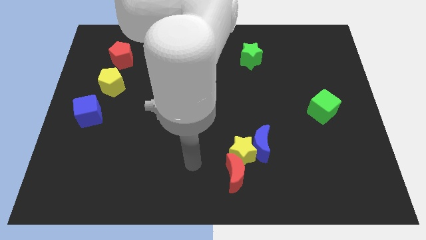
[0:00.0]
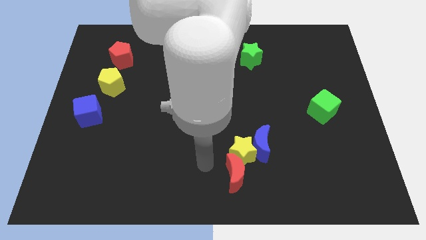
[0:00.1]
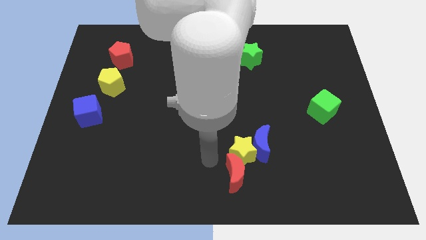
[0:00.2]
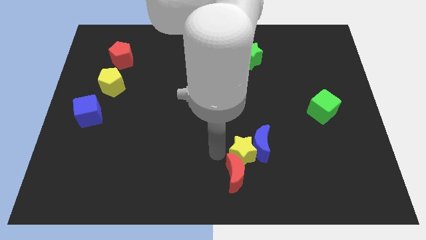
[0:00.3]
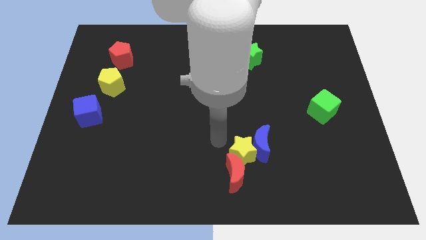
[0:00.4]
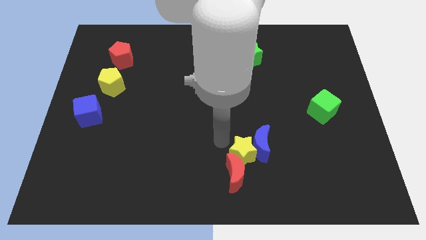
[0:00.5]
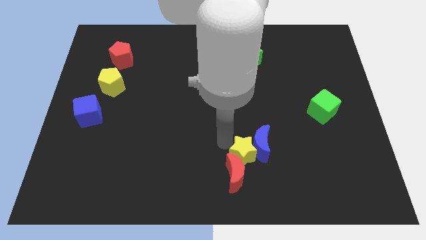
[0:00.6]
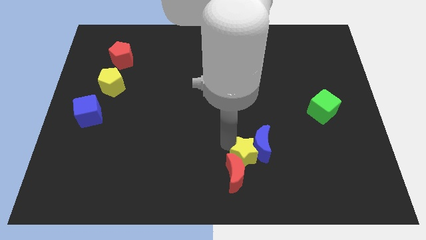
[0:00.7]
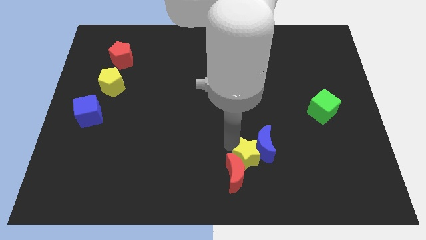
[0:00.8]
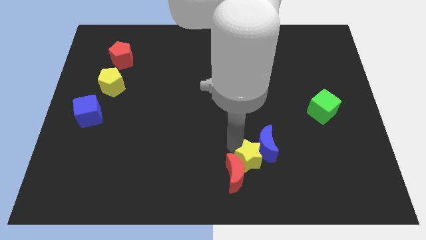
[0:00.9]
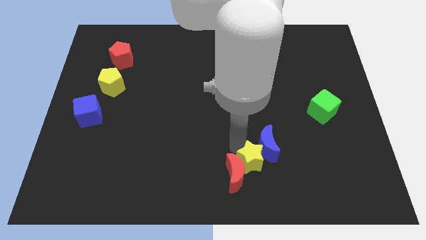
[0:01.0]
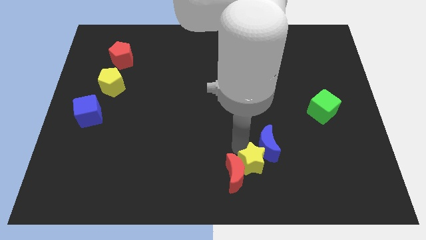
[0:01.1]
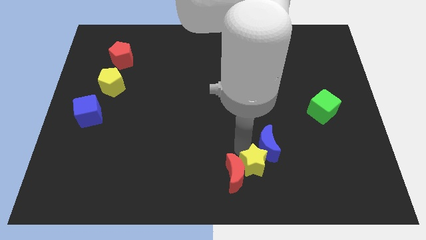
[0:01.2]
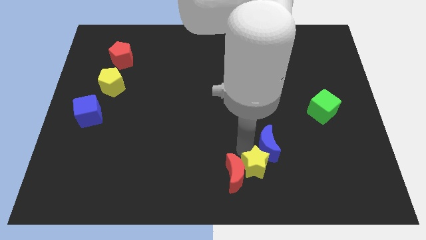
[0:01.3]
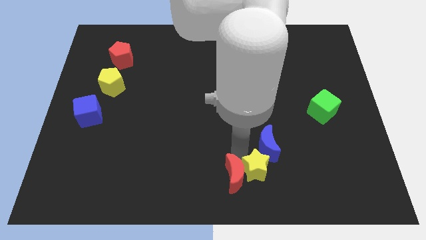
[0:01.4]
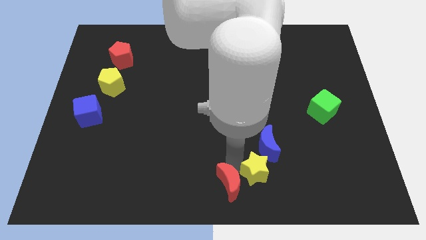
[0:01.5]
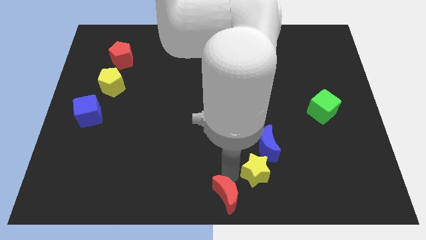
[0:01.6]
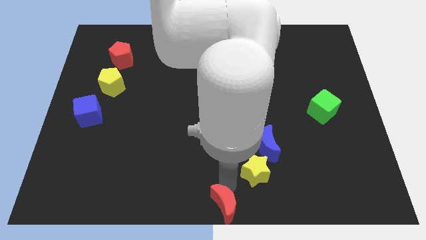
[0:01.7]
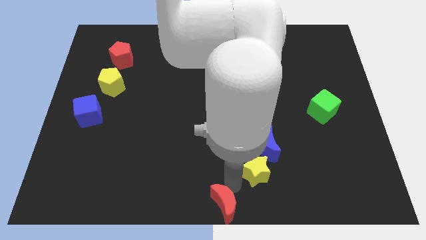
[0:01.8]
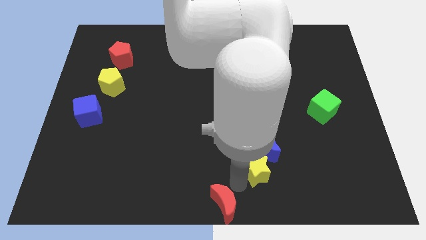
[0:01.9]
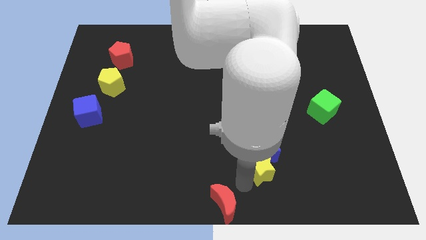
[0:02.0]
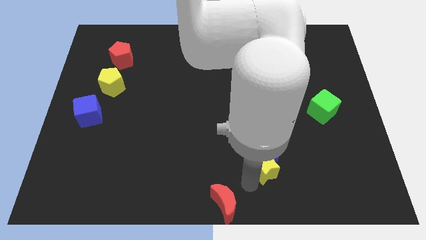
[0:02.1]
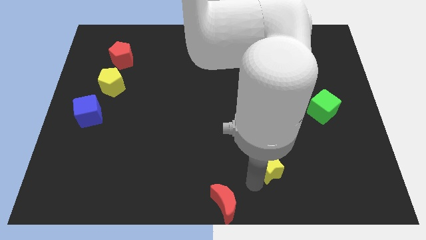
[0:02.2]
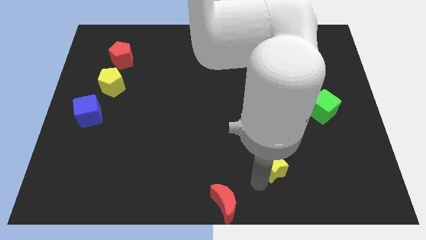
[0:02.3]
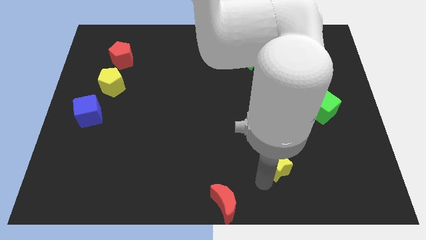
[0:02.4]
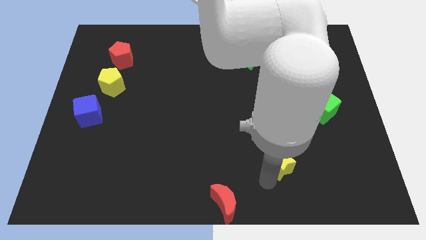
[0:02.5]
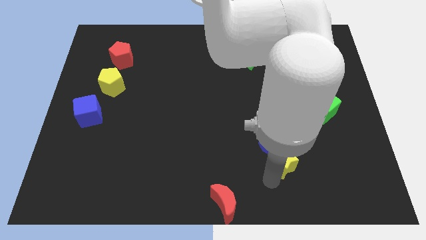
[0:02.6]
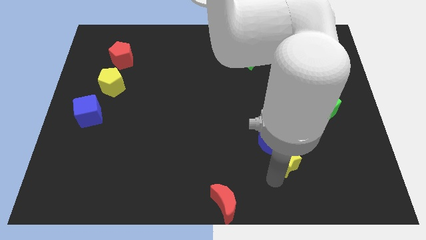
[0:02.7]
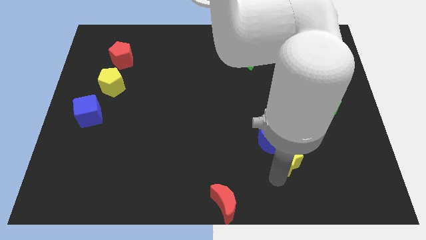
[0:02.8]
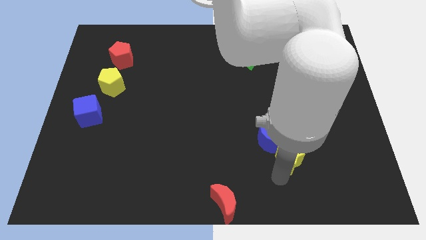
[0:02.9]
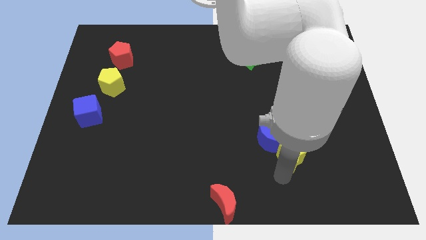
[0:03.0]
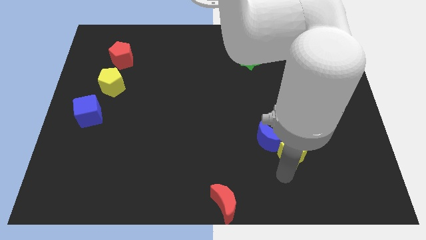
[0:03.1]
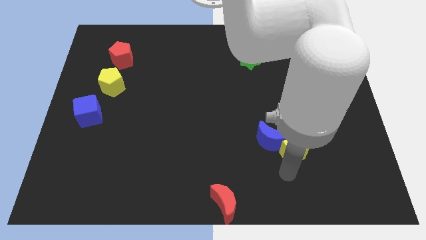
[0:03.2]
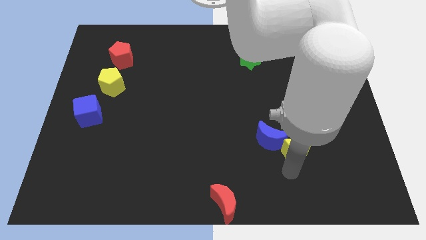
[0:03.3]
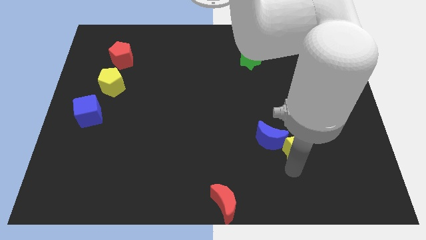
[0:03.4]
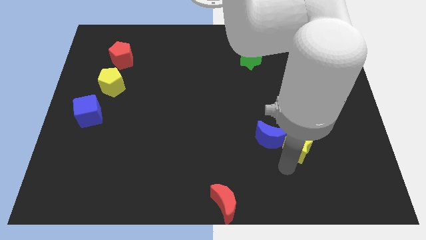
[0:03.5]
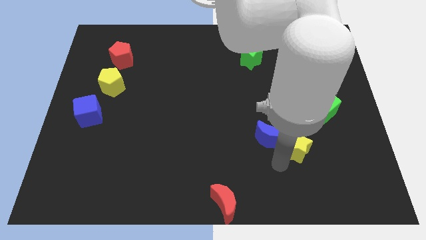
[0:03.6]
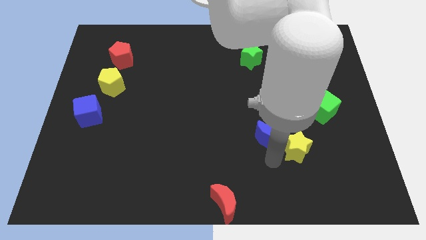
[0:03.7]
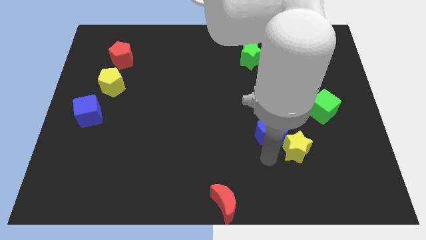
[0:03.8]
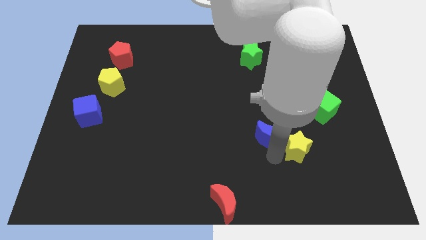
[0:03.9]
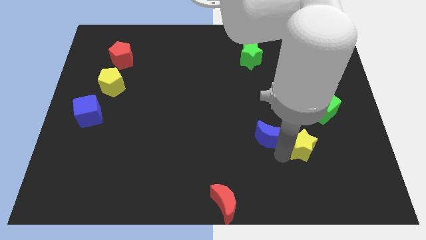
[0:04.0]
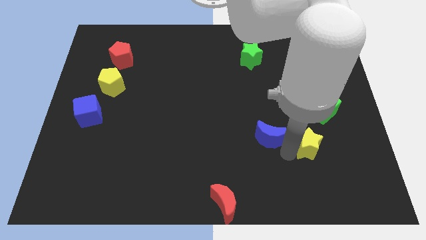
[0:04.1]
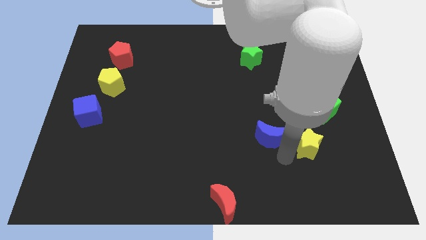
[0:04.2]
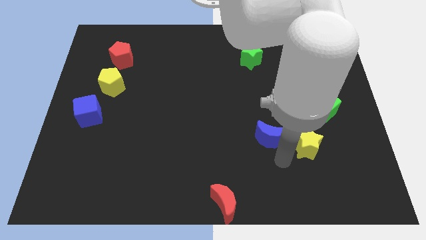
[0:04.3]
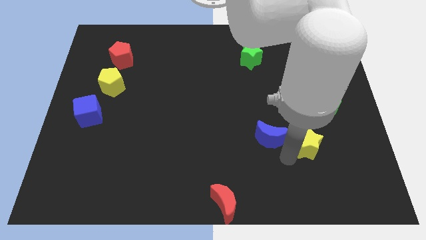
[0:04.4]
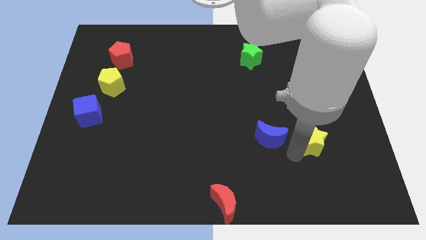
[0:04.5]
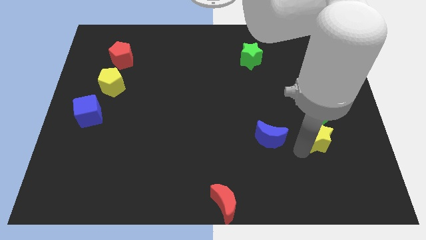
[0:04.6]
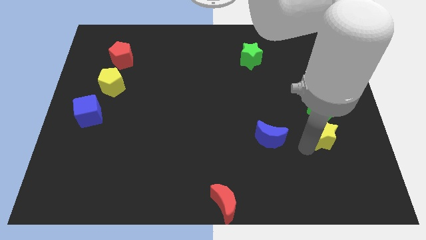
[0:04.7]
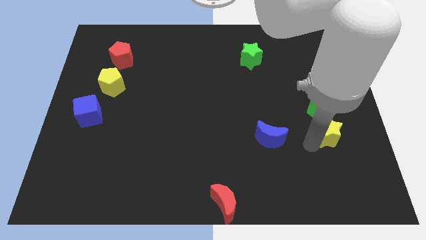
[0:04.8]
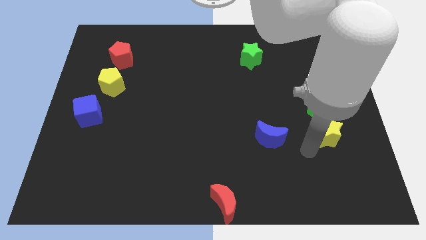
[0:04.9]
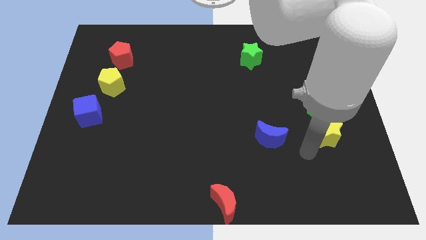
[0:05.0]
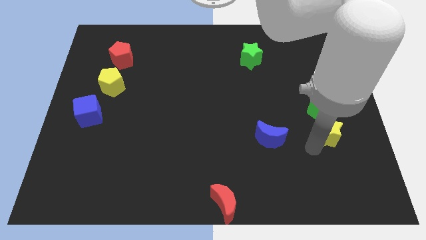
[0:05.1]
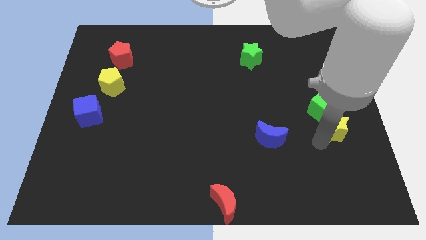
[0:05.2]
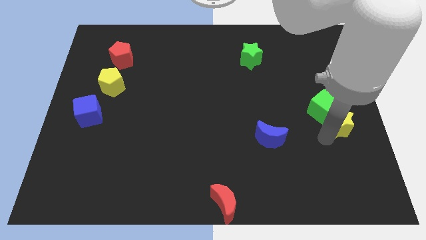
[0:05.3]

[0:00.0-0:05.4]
put the yellow star to the right side of the board
